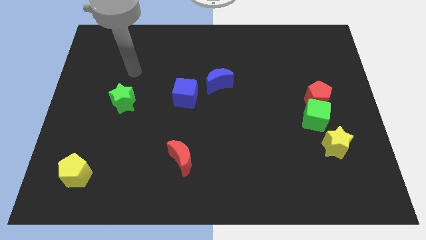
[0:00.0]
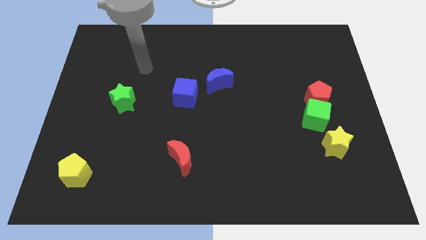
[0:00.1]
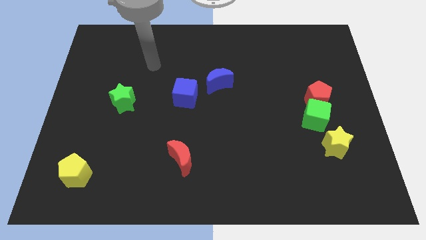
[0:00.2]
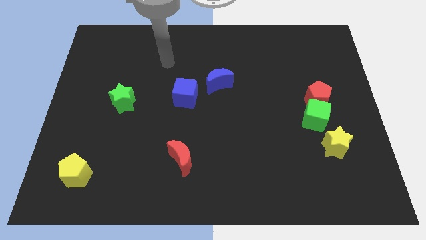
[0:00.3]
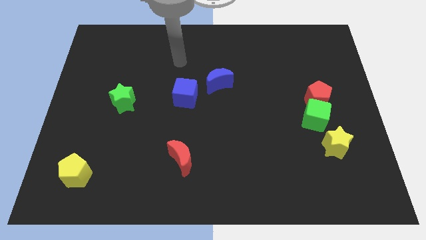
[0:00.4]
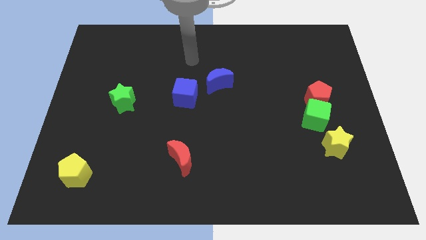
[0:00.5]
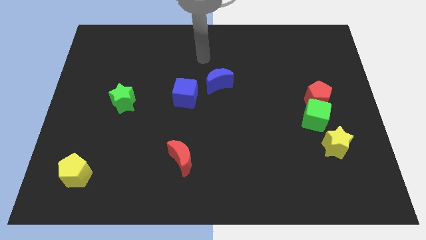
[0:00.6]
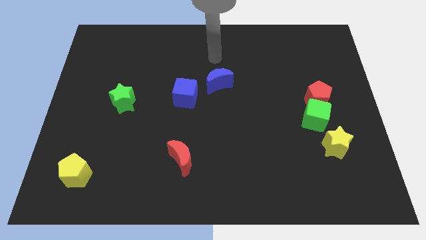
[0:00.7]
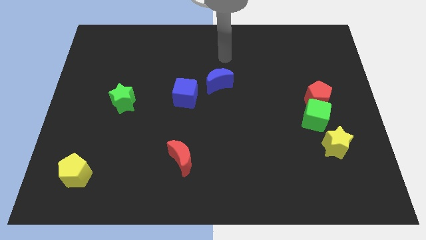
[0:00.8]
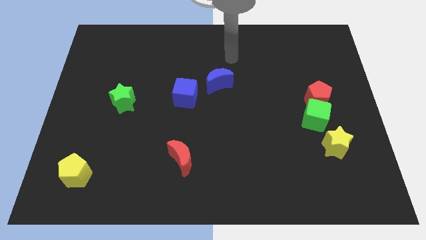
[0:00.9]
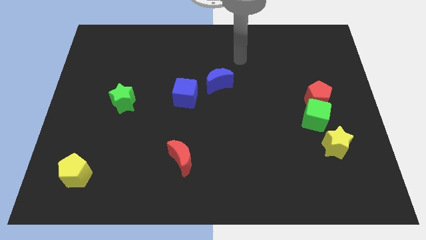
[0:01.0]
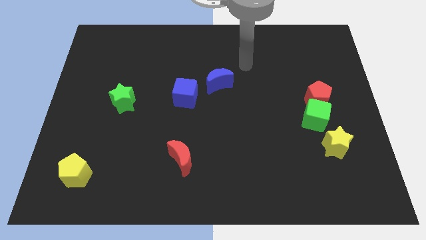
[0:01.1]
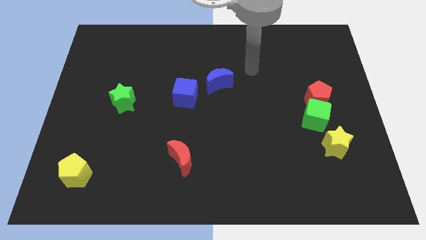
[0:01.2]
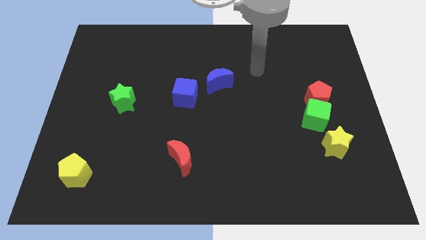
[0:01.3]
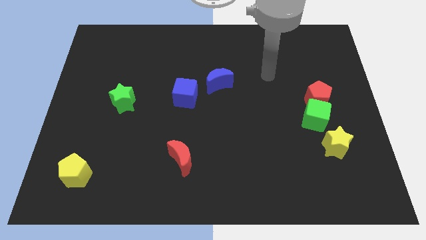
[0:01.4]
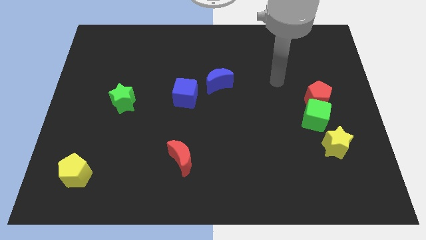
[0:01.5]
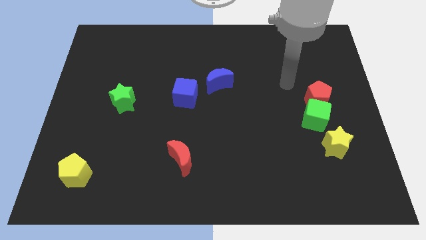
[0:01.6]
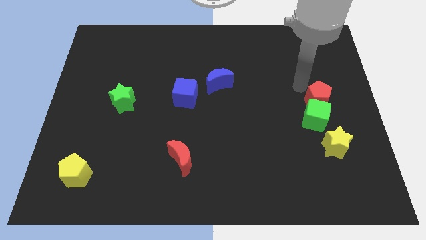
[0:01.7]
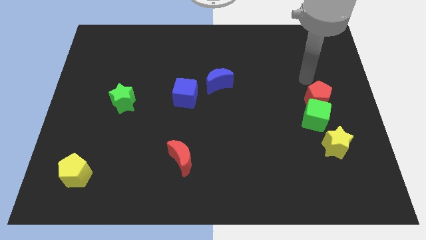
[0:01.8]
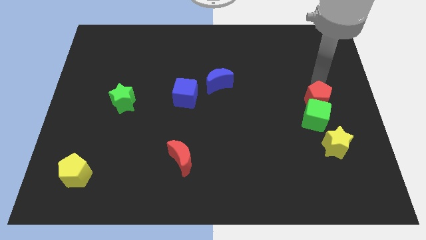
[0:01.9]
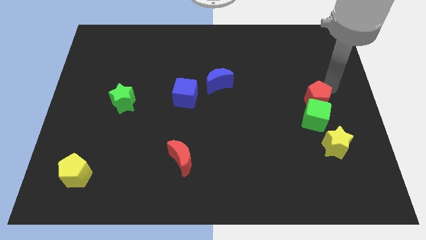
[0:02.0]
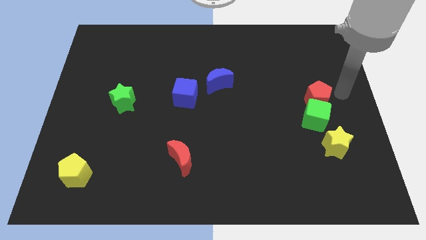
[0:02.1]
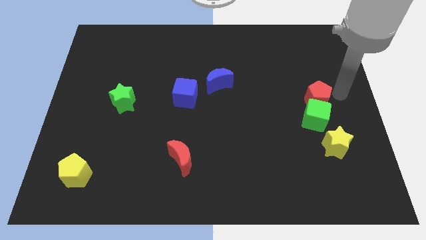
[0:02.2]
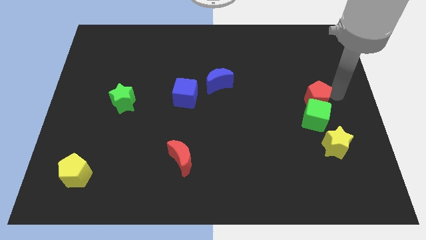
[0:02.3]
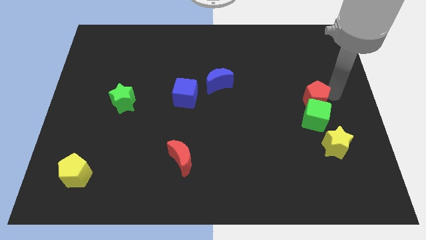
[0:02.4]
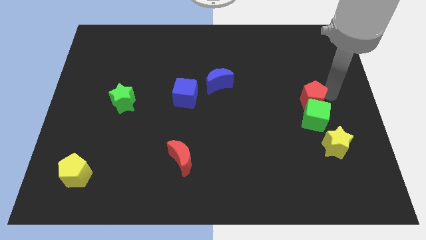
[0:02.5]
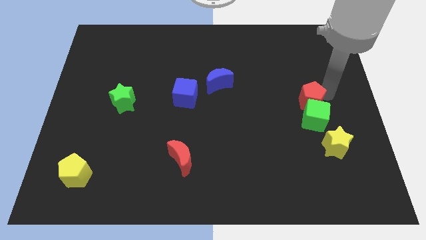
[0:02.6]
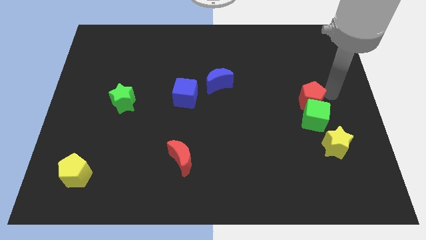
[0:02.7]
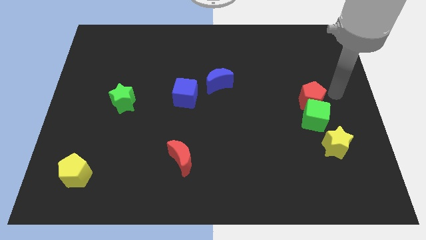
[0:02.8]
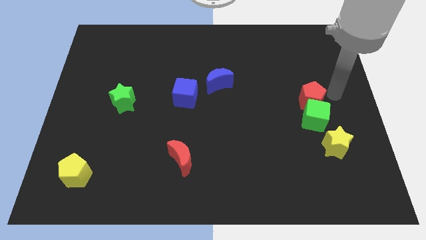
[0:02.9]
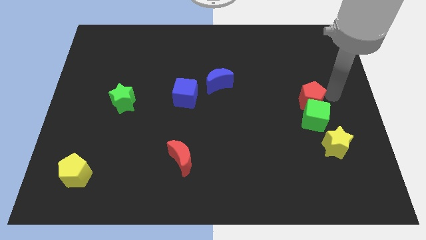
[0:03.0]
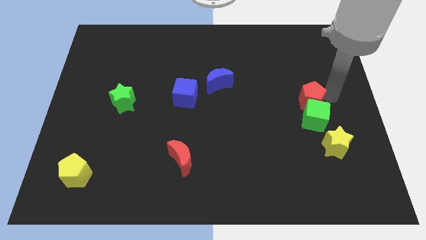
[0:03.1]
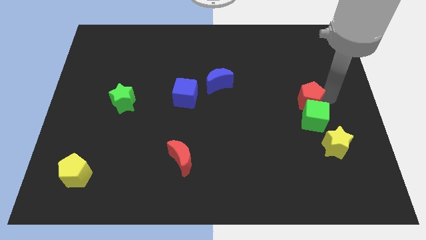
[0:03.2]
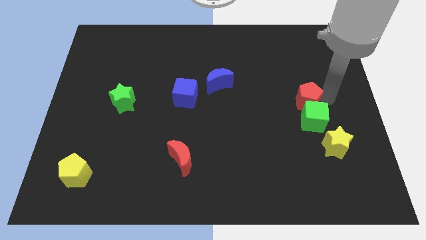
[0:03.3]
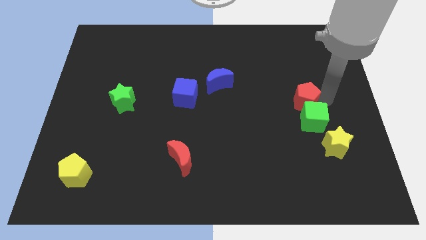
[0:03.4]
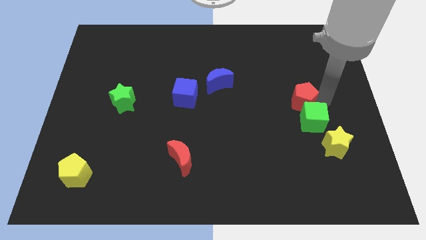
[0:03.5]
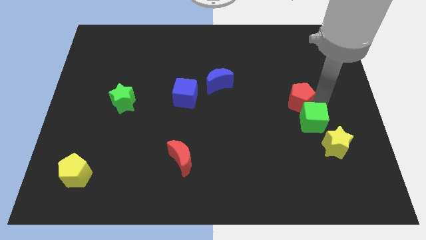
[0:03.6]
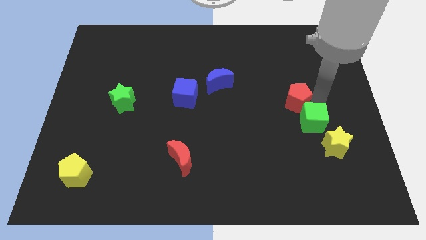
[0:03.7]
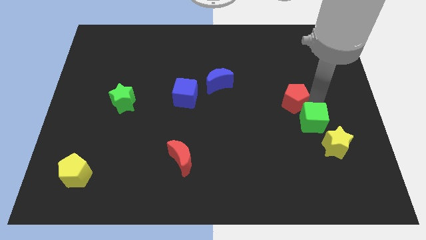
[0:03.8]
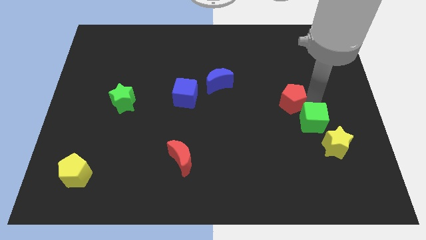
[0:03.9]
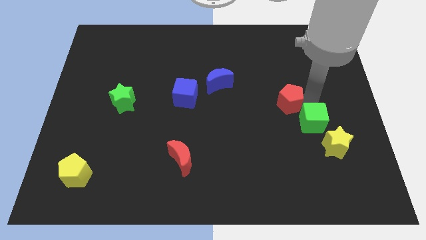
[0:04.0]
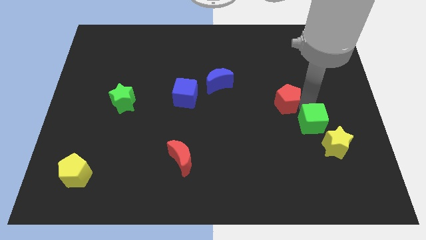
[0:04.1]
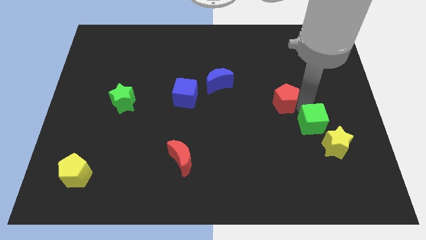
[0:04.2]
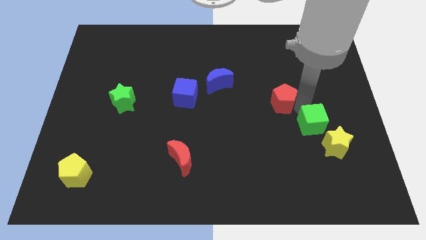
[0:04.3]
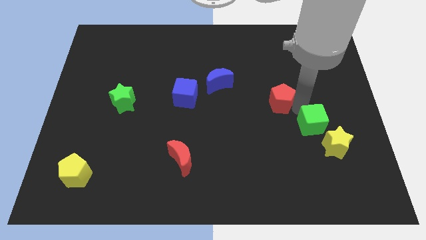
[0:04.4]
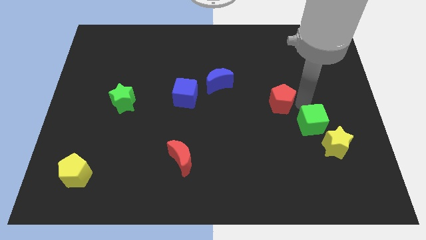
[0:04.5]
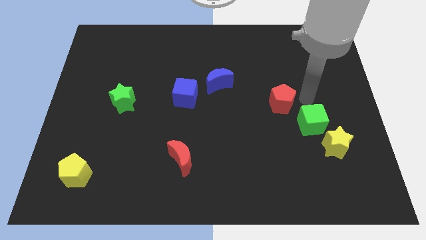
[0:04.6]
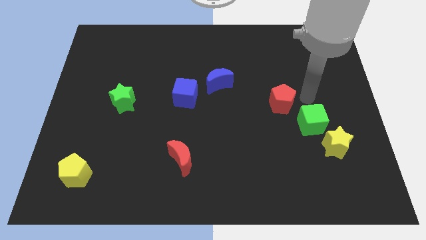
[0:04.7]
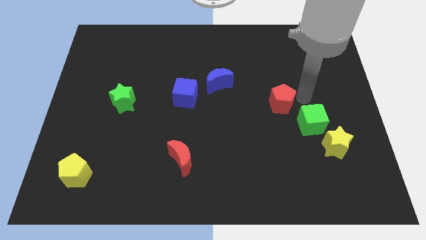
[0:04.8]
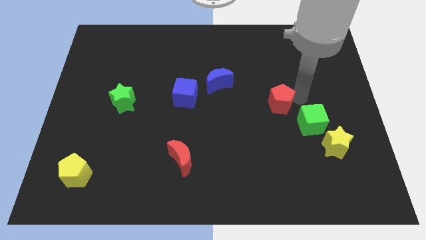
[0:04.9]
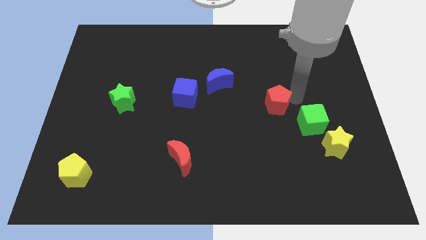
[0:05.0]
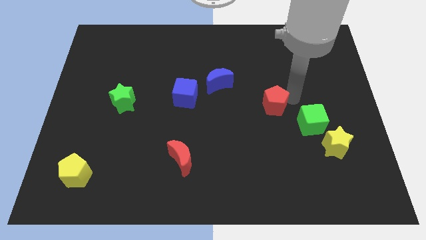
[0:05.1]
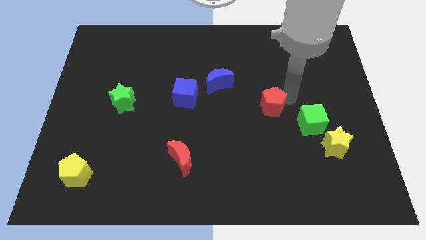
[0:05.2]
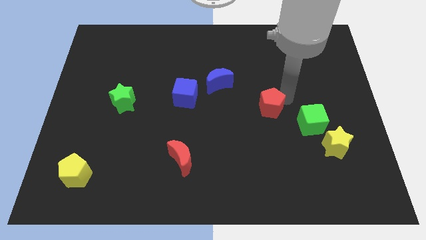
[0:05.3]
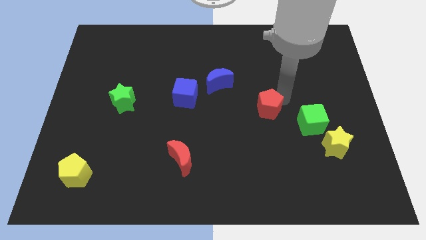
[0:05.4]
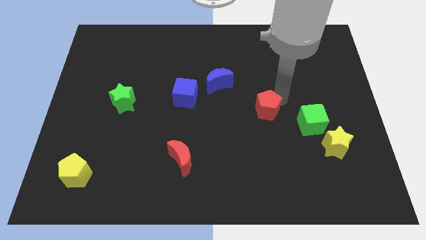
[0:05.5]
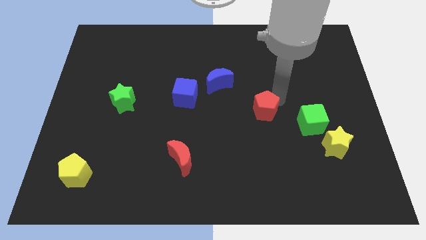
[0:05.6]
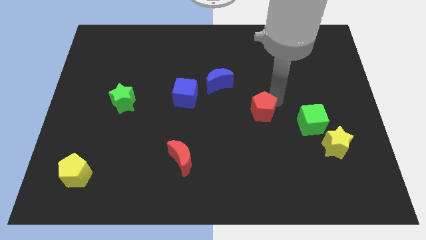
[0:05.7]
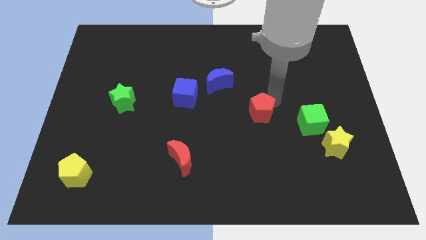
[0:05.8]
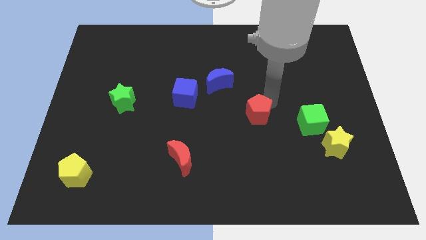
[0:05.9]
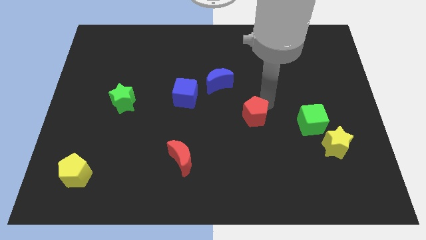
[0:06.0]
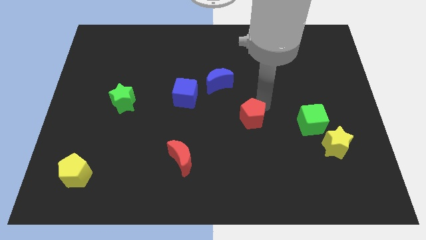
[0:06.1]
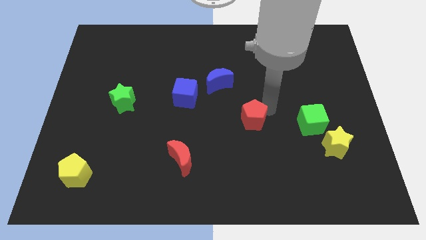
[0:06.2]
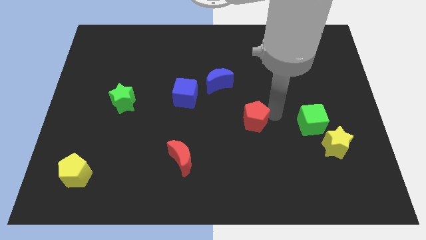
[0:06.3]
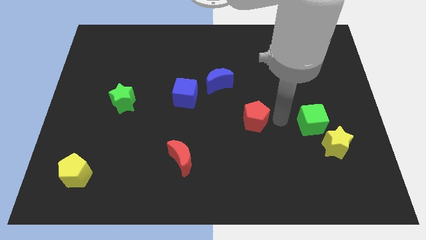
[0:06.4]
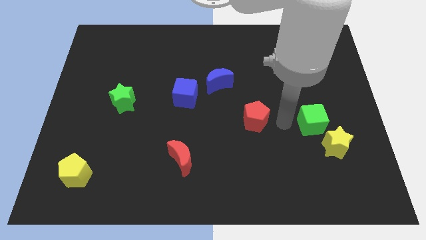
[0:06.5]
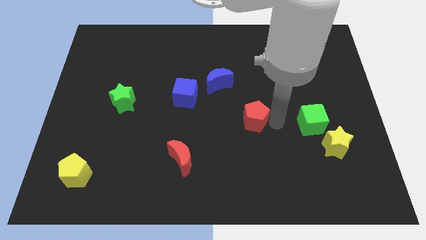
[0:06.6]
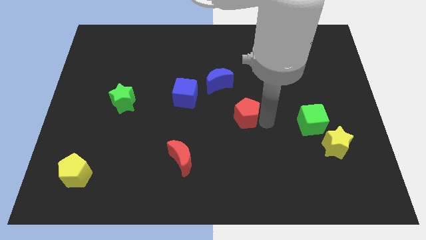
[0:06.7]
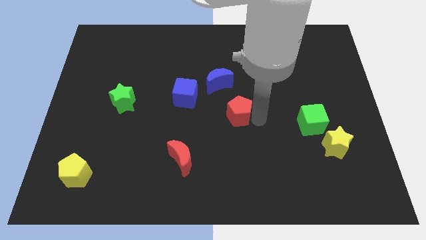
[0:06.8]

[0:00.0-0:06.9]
put the red pentagon below the blue moon
